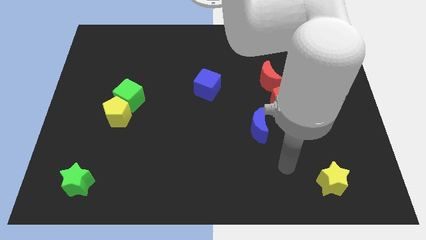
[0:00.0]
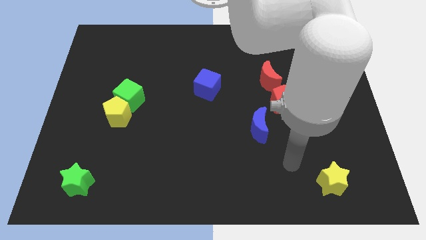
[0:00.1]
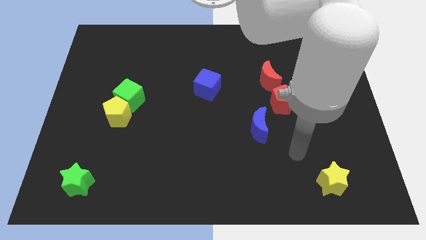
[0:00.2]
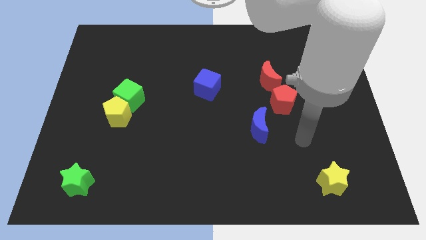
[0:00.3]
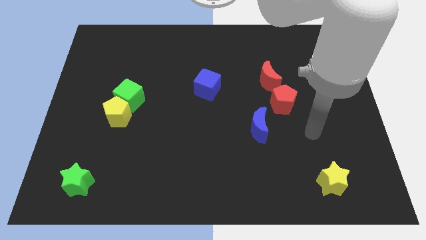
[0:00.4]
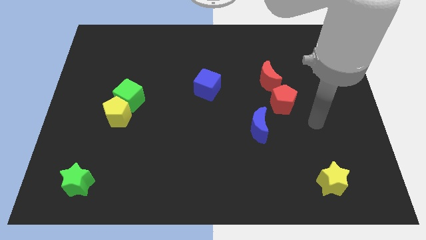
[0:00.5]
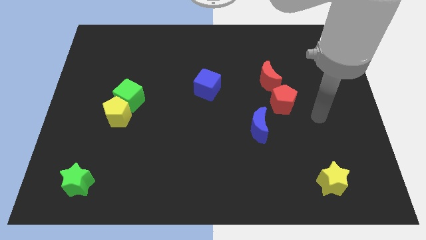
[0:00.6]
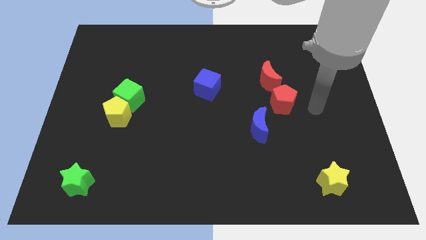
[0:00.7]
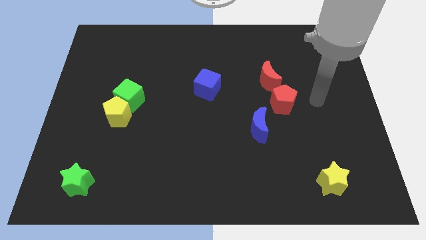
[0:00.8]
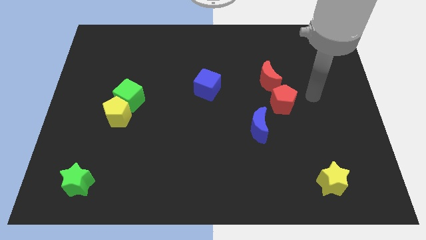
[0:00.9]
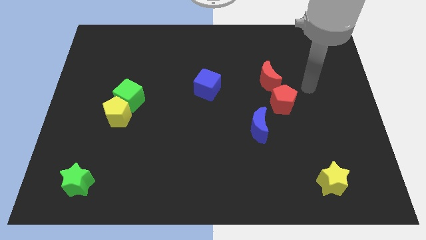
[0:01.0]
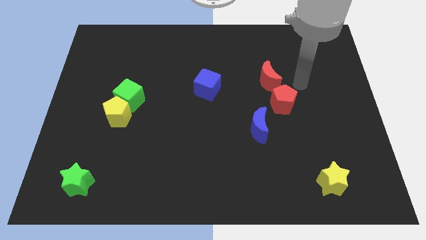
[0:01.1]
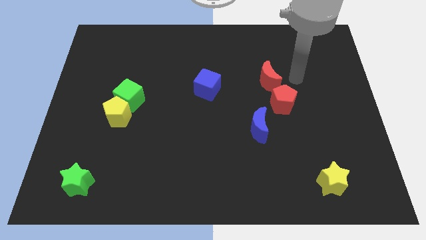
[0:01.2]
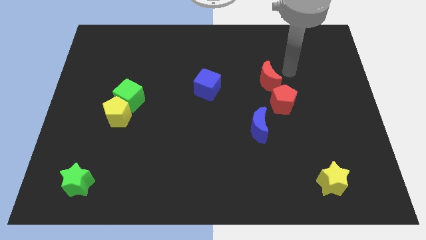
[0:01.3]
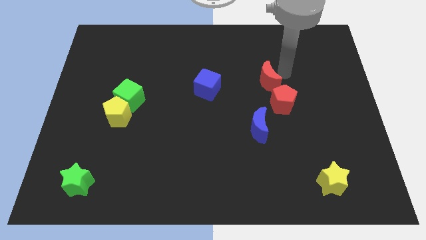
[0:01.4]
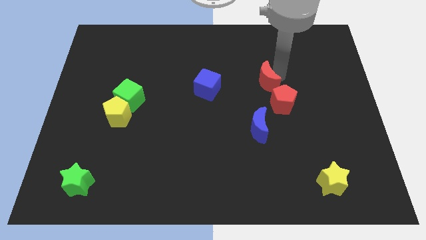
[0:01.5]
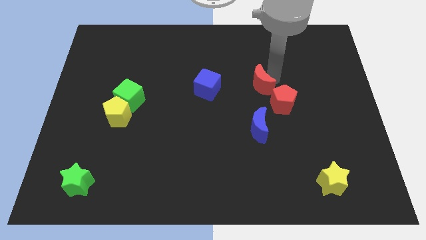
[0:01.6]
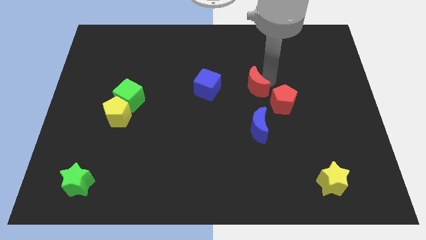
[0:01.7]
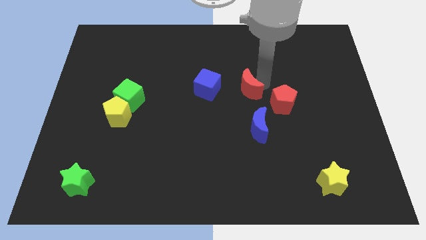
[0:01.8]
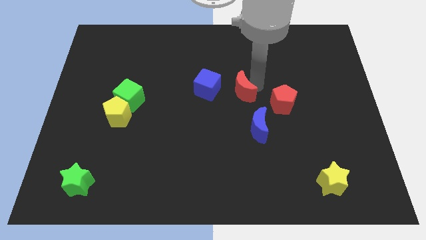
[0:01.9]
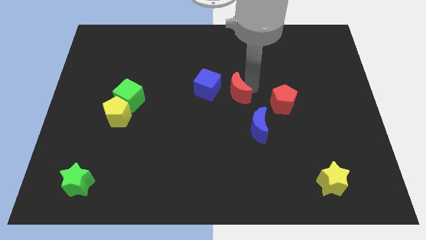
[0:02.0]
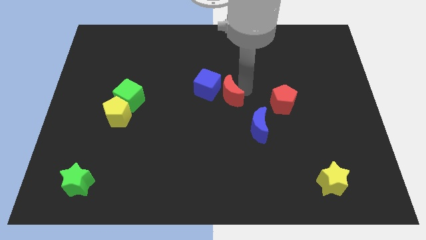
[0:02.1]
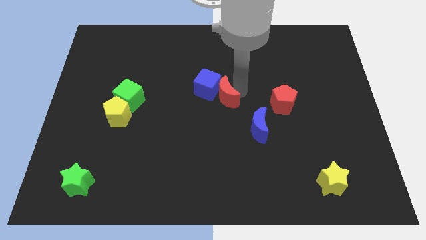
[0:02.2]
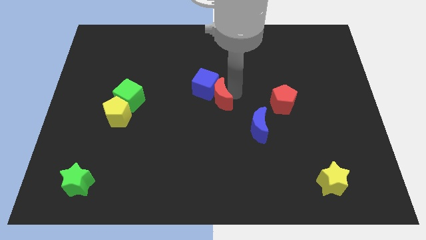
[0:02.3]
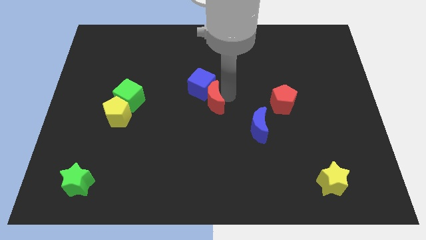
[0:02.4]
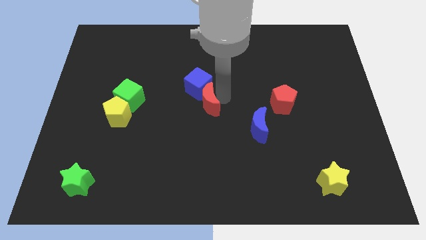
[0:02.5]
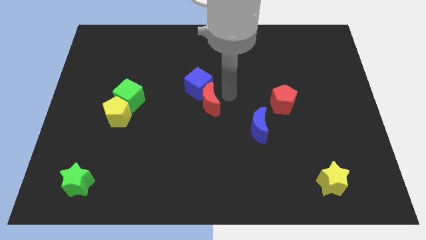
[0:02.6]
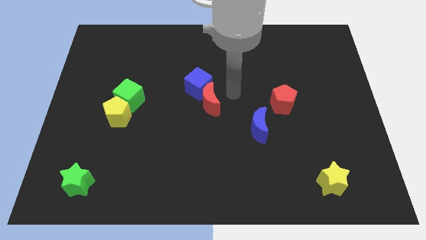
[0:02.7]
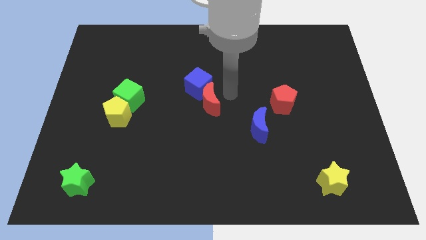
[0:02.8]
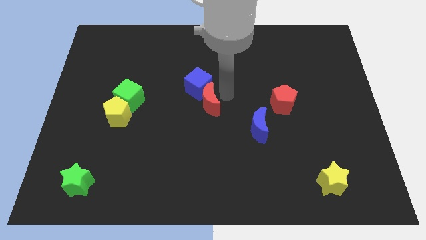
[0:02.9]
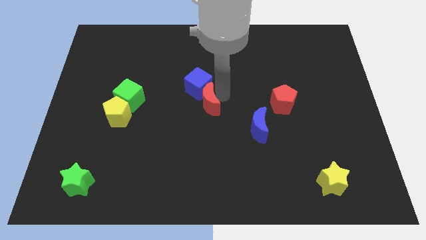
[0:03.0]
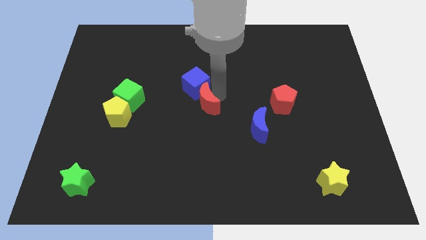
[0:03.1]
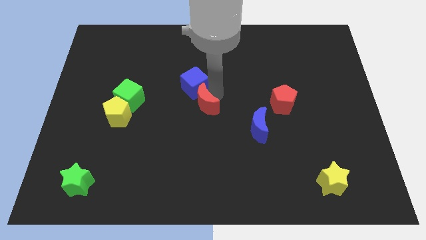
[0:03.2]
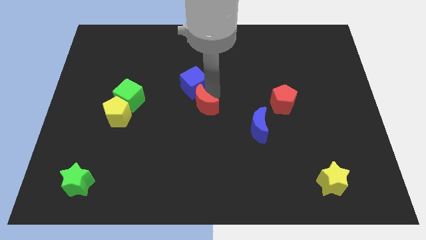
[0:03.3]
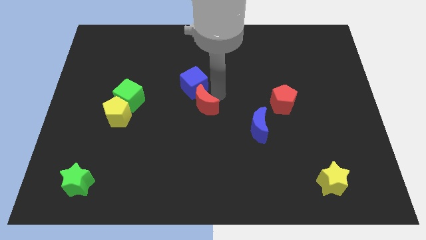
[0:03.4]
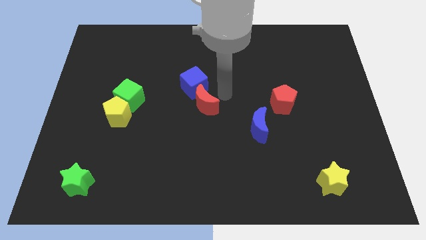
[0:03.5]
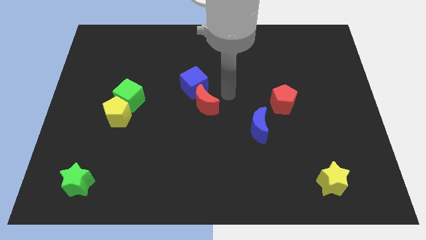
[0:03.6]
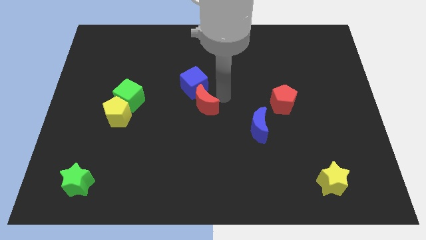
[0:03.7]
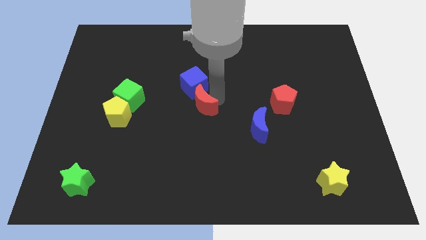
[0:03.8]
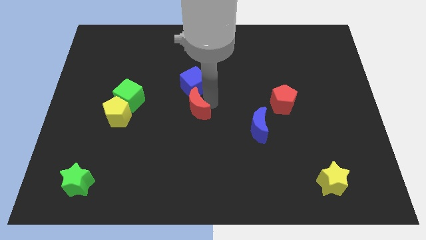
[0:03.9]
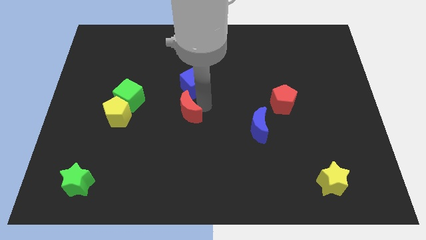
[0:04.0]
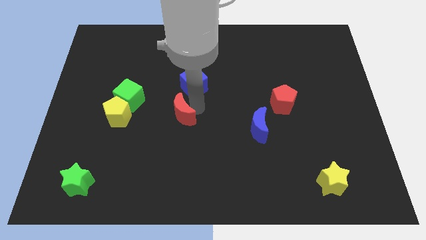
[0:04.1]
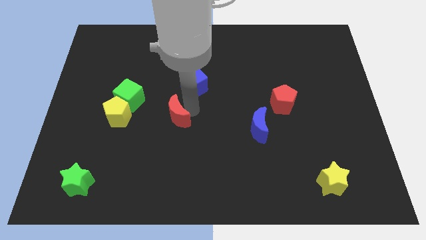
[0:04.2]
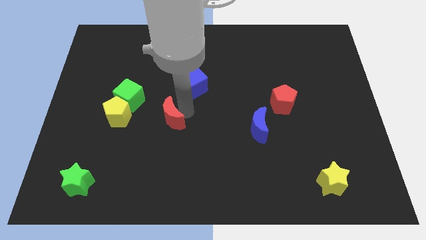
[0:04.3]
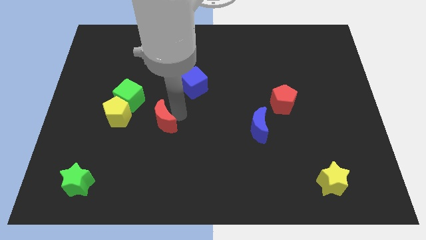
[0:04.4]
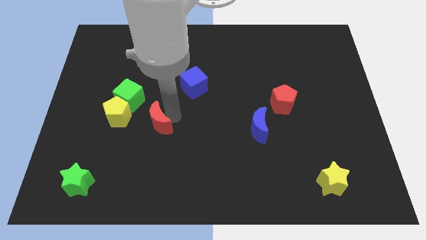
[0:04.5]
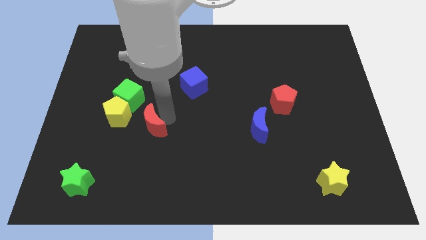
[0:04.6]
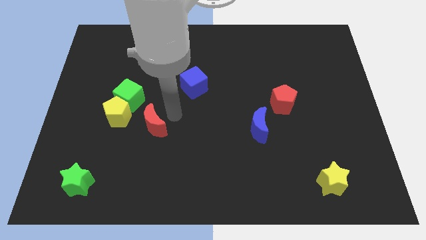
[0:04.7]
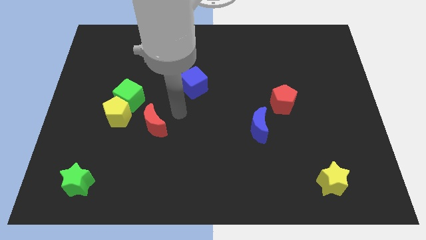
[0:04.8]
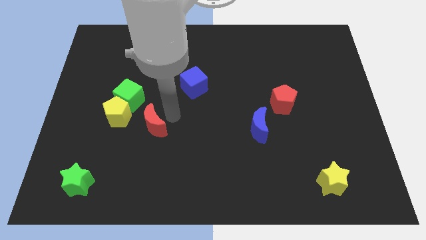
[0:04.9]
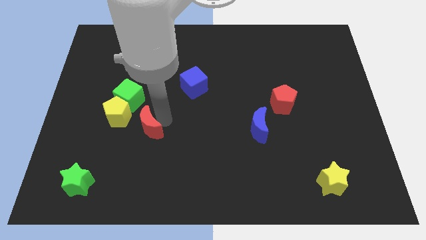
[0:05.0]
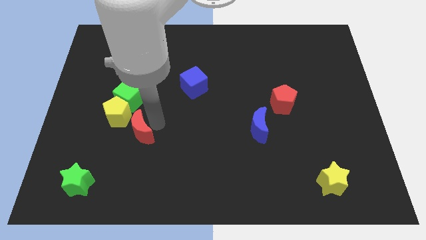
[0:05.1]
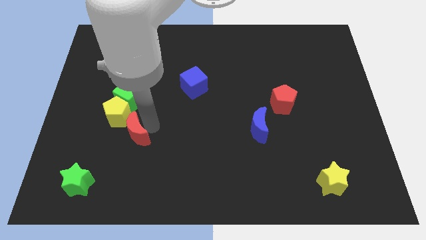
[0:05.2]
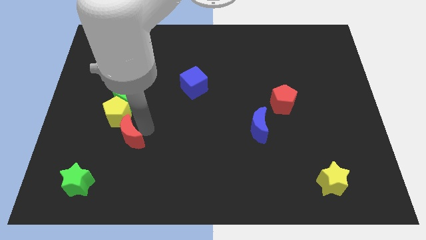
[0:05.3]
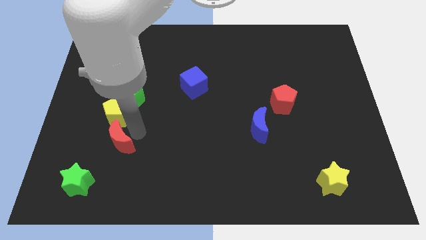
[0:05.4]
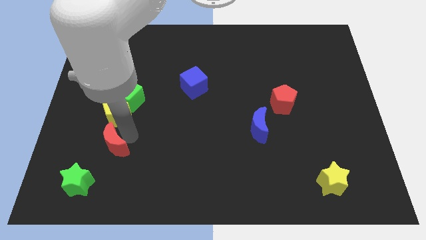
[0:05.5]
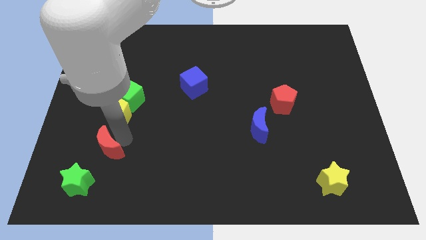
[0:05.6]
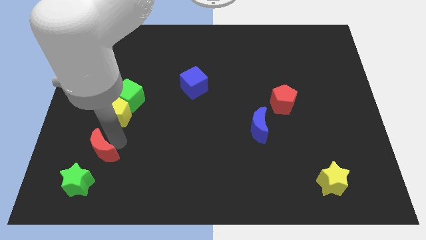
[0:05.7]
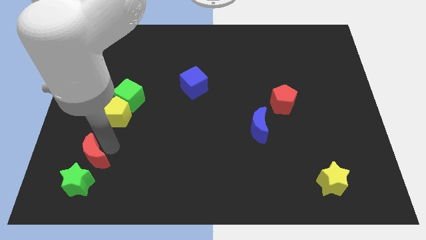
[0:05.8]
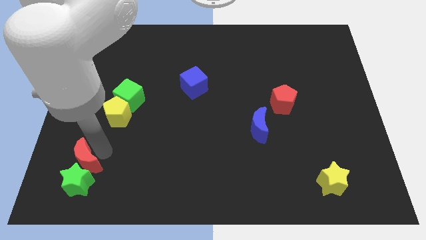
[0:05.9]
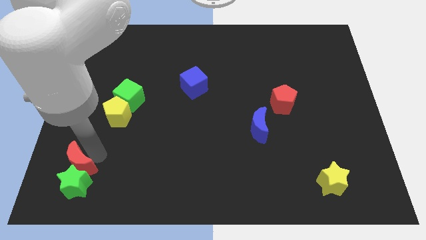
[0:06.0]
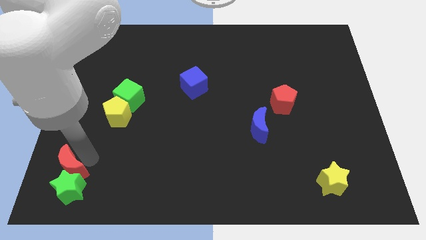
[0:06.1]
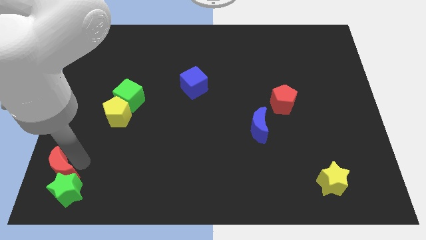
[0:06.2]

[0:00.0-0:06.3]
slide the red moon to the bottom left
